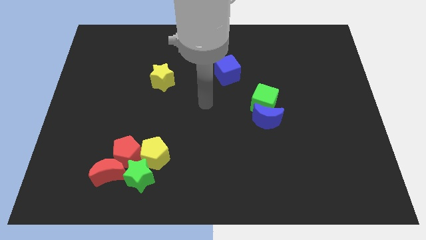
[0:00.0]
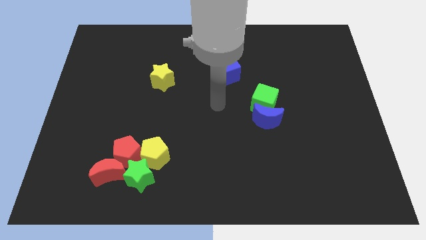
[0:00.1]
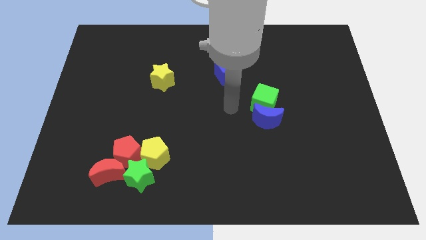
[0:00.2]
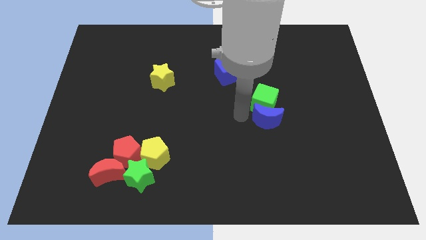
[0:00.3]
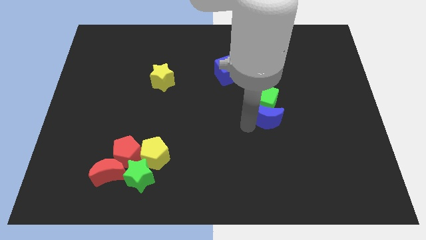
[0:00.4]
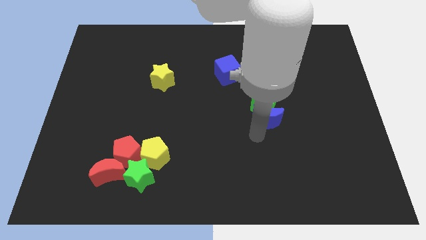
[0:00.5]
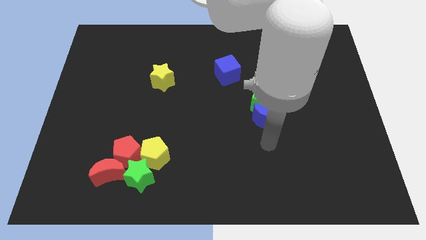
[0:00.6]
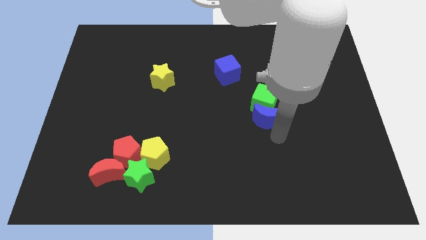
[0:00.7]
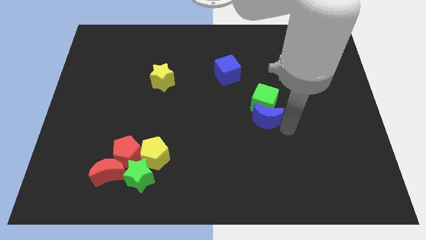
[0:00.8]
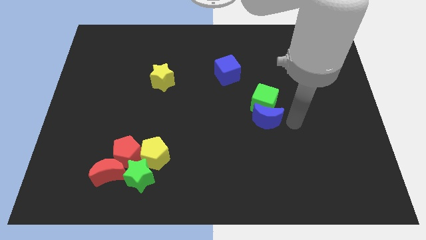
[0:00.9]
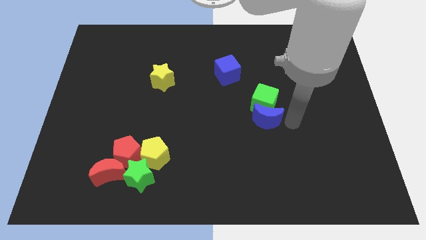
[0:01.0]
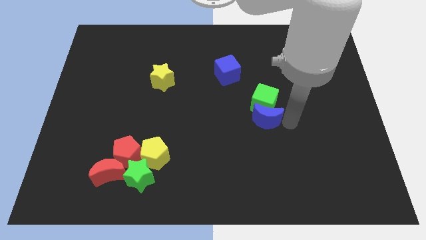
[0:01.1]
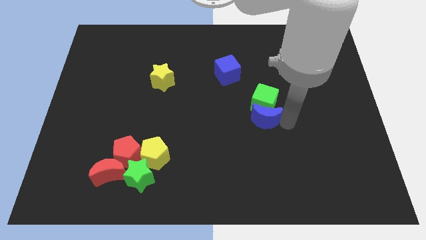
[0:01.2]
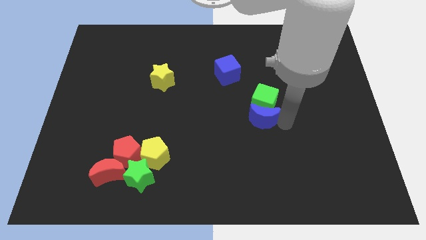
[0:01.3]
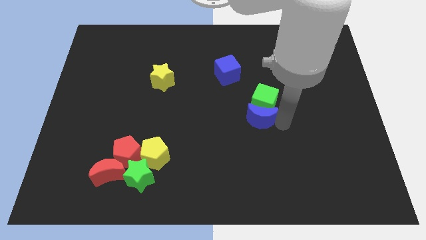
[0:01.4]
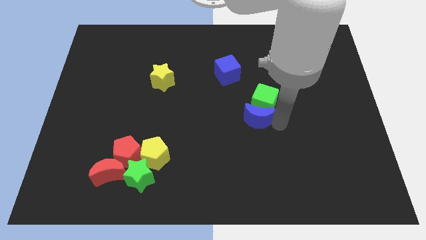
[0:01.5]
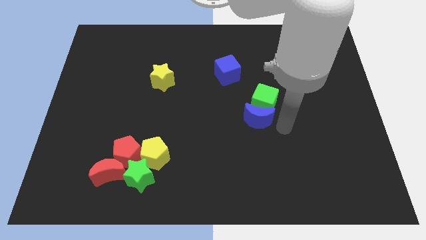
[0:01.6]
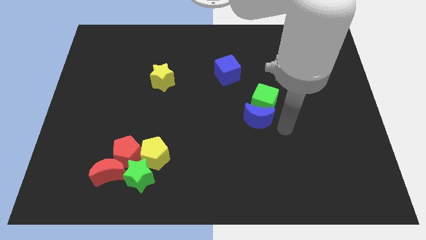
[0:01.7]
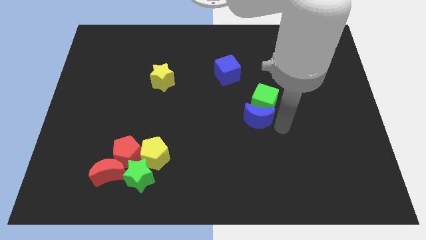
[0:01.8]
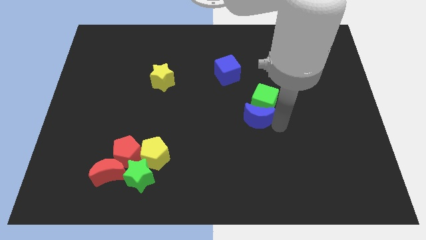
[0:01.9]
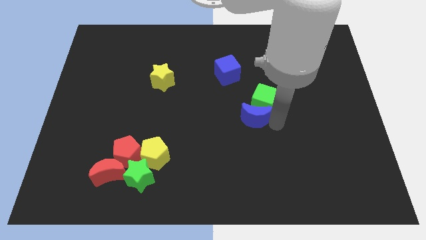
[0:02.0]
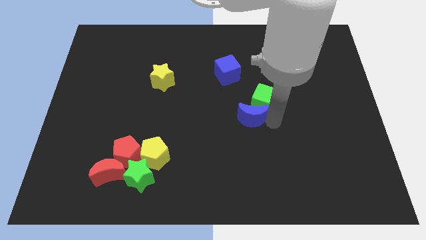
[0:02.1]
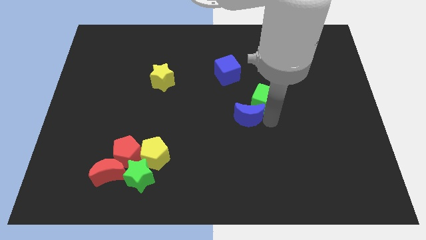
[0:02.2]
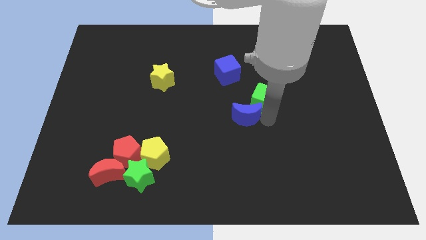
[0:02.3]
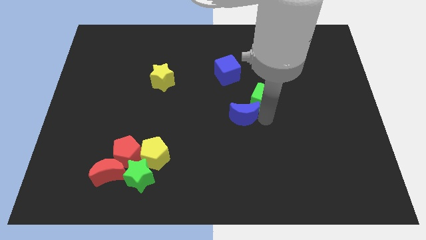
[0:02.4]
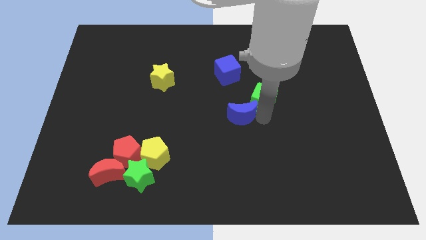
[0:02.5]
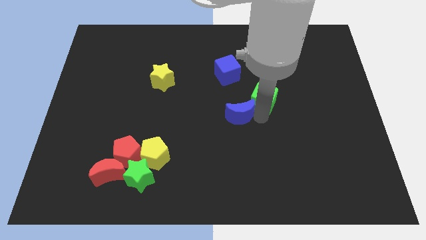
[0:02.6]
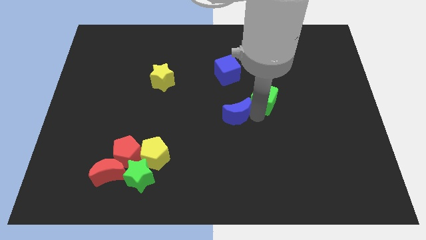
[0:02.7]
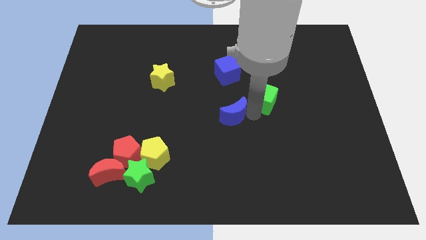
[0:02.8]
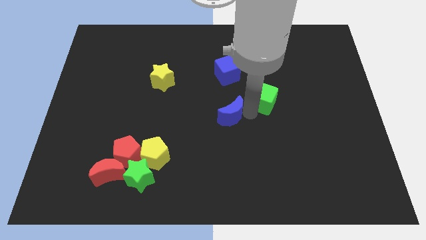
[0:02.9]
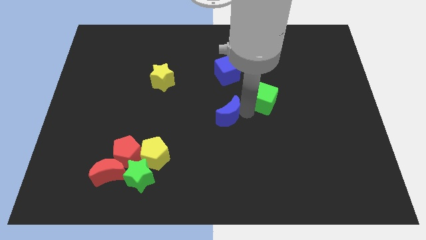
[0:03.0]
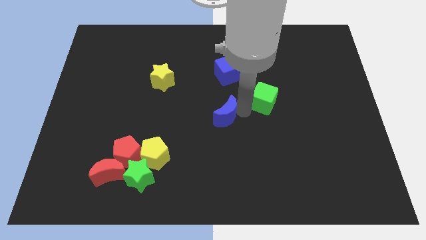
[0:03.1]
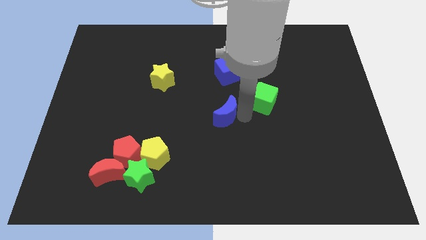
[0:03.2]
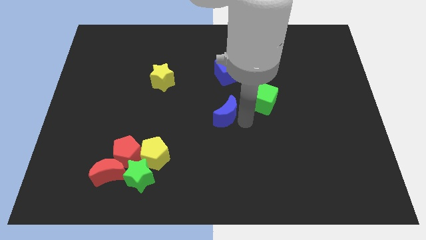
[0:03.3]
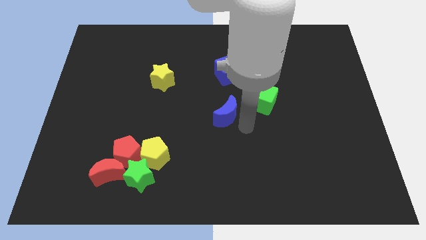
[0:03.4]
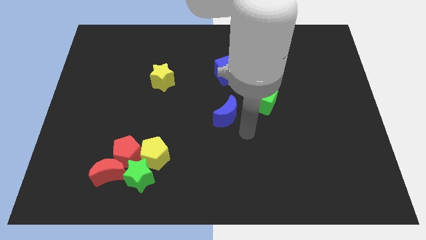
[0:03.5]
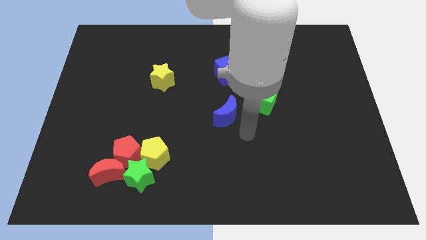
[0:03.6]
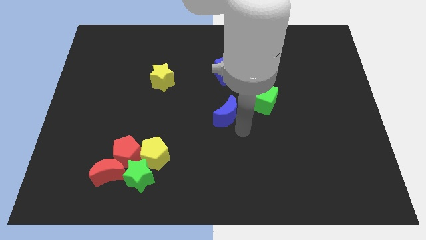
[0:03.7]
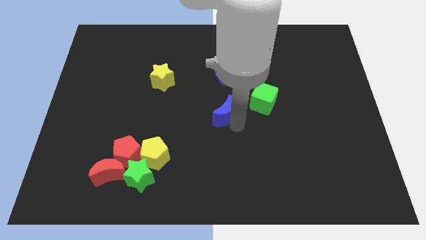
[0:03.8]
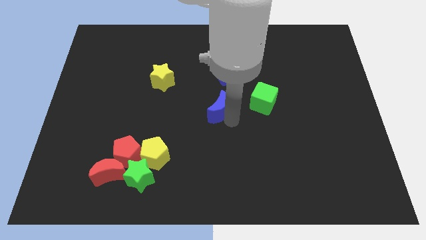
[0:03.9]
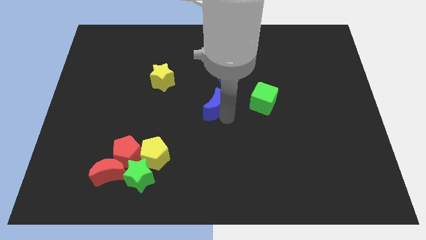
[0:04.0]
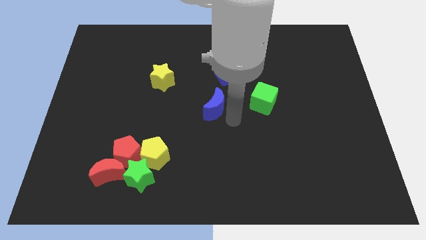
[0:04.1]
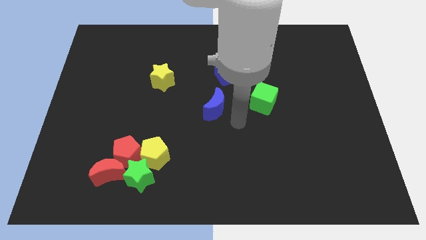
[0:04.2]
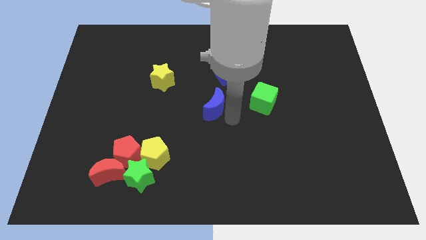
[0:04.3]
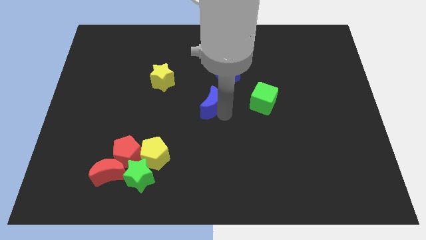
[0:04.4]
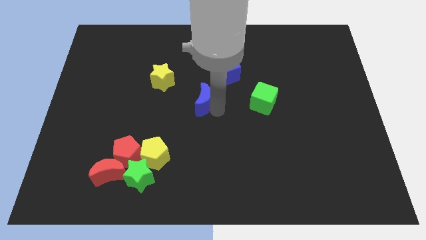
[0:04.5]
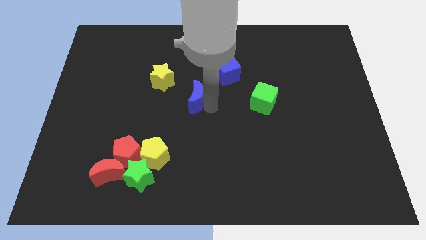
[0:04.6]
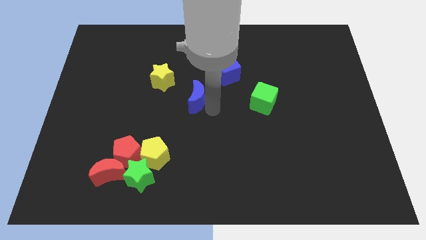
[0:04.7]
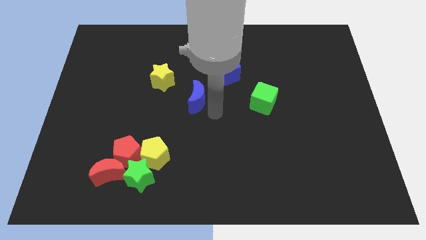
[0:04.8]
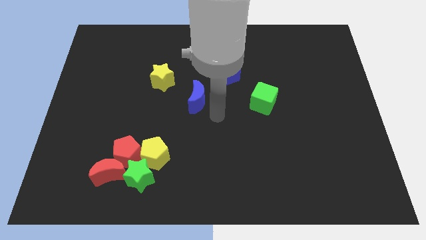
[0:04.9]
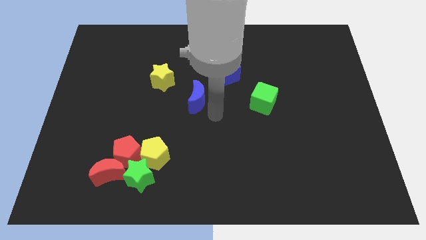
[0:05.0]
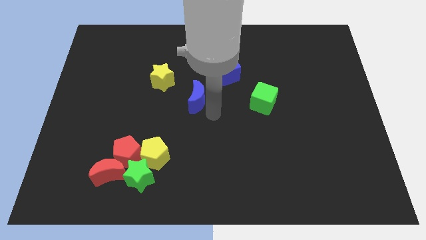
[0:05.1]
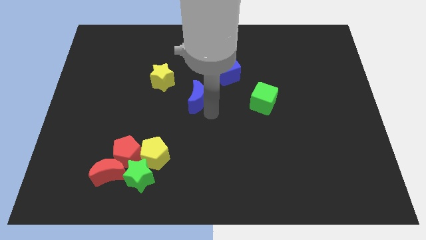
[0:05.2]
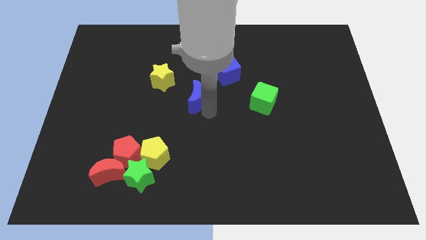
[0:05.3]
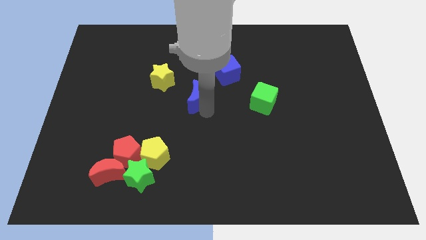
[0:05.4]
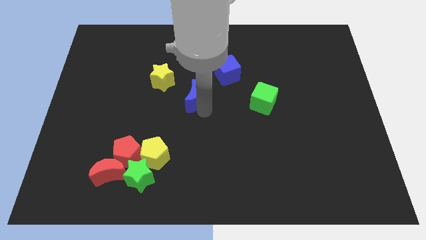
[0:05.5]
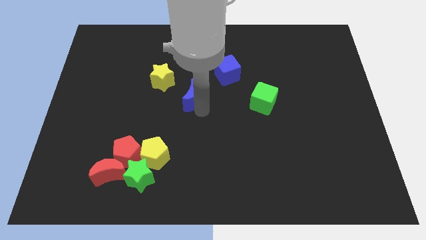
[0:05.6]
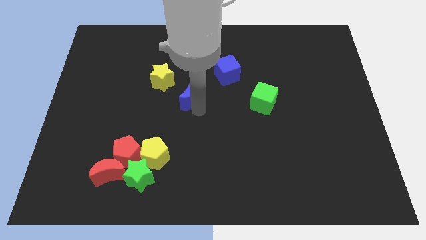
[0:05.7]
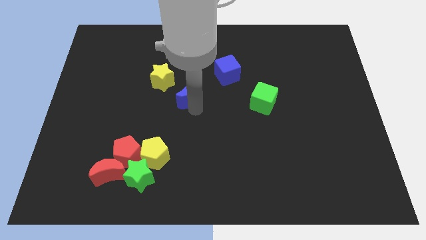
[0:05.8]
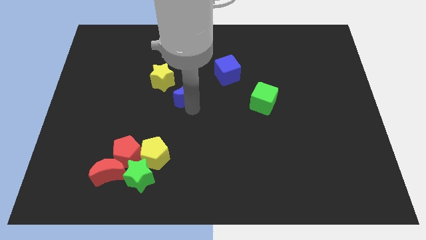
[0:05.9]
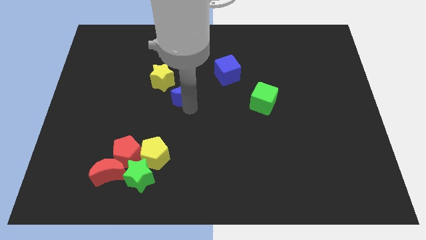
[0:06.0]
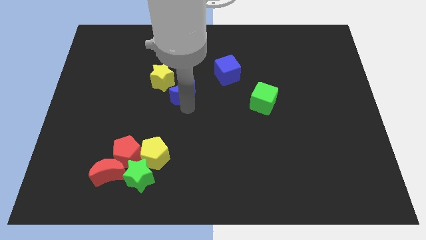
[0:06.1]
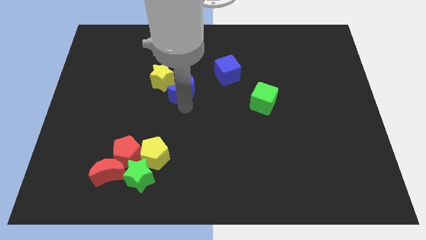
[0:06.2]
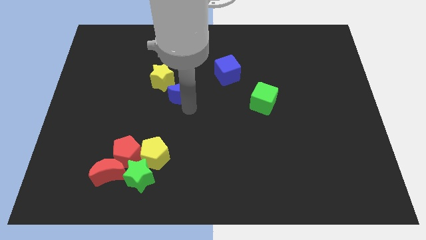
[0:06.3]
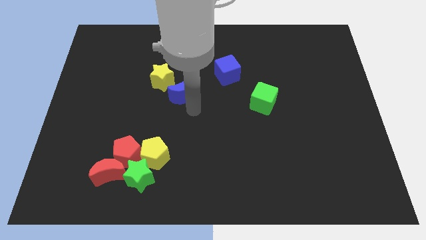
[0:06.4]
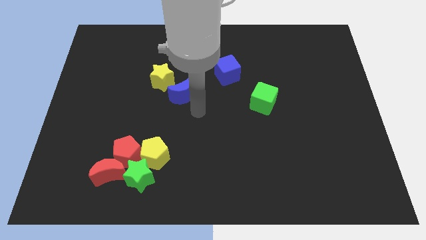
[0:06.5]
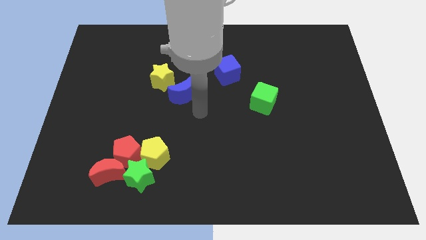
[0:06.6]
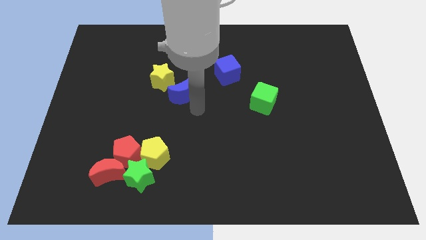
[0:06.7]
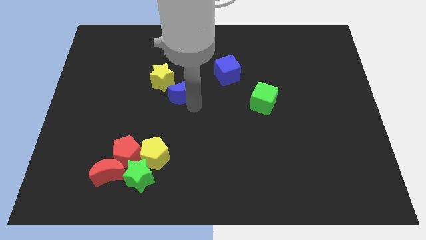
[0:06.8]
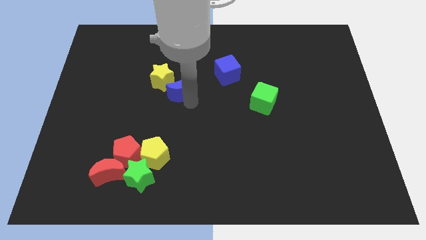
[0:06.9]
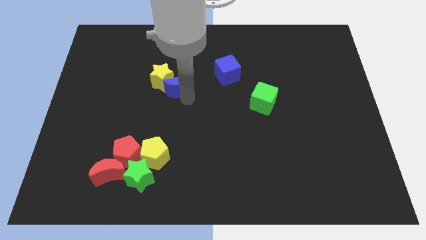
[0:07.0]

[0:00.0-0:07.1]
slide the blue moon close to the yellow star

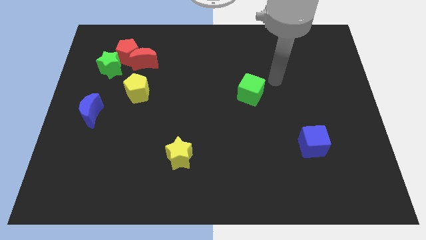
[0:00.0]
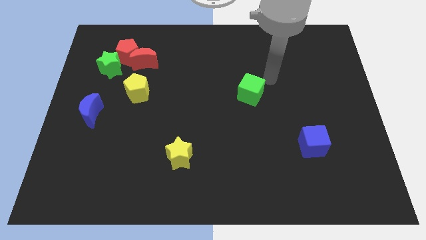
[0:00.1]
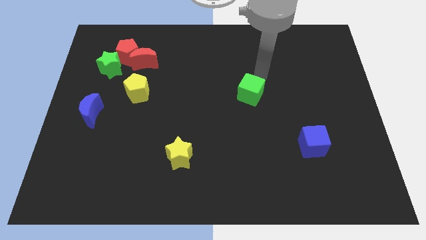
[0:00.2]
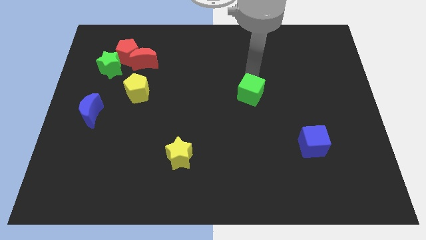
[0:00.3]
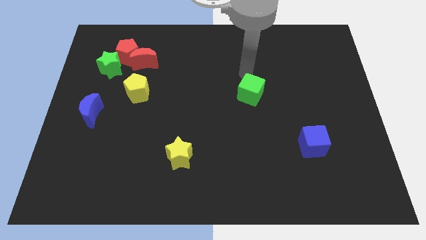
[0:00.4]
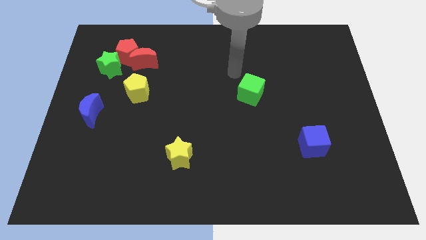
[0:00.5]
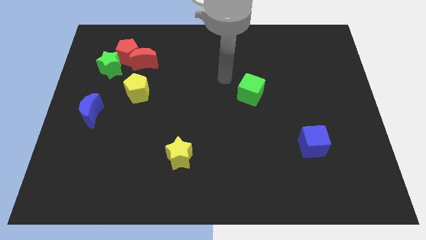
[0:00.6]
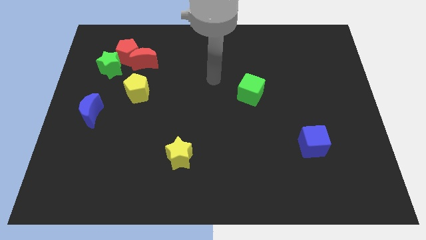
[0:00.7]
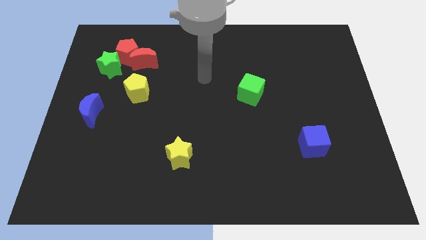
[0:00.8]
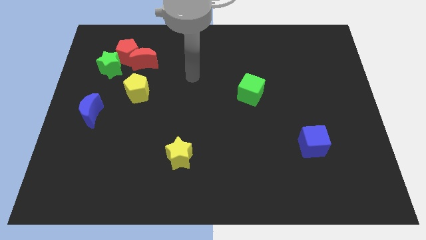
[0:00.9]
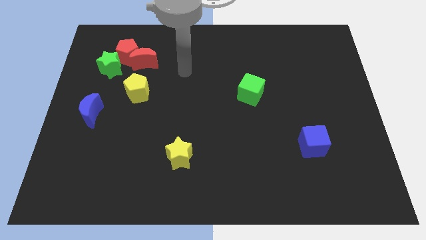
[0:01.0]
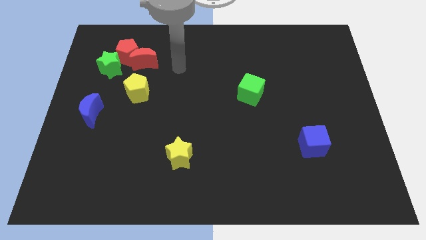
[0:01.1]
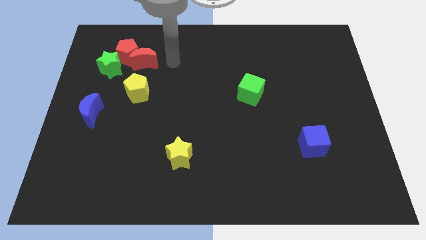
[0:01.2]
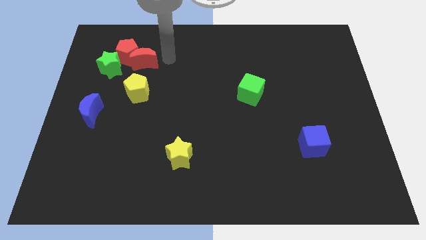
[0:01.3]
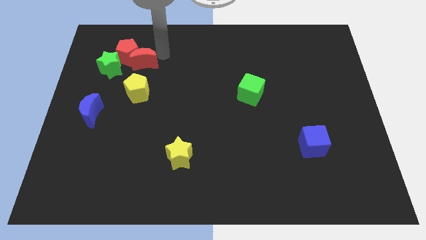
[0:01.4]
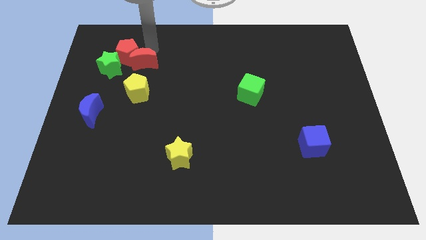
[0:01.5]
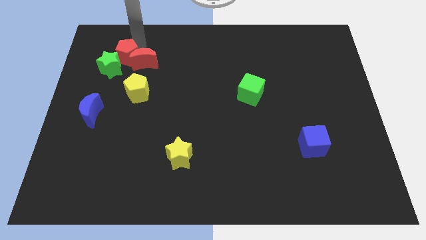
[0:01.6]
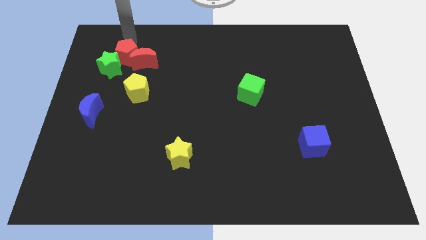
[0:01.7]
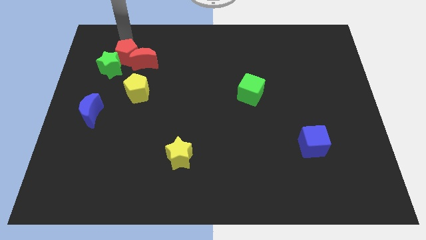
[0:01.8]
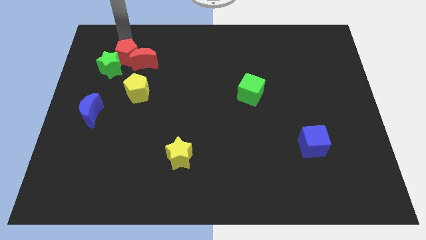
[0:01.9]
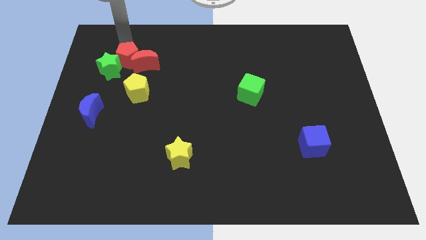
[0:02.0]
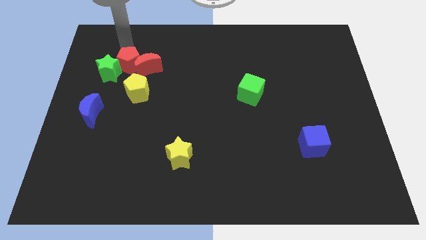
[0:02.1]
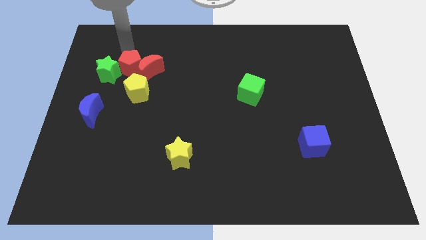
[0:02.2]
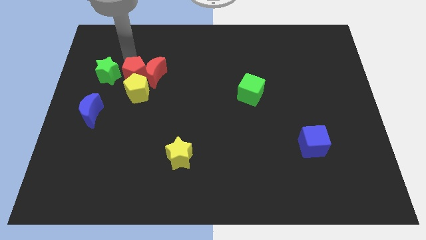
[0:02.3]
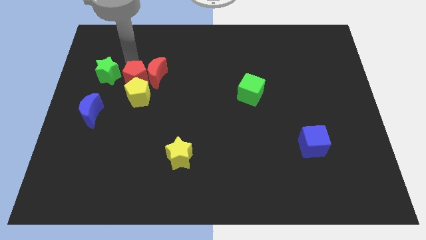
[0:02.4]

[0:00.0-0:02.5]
move the red pentagon towards the yellow pentagon
